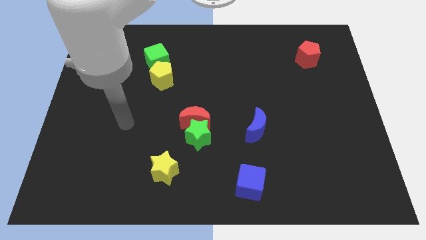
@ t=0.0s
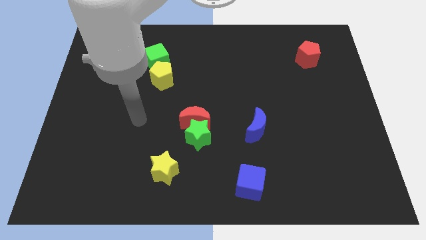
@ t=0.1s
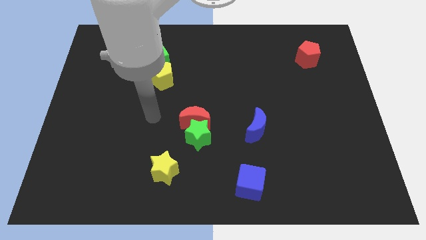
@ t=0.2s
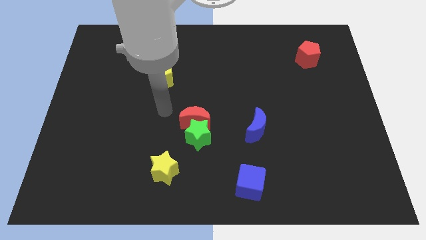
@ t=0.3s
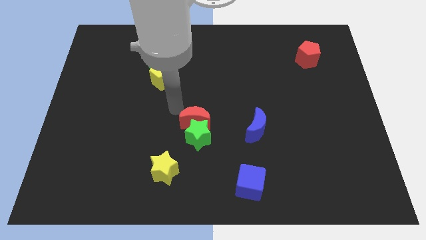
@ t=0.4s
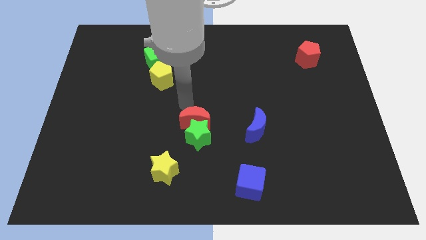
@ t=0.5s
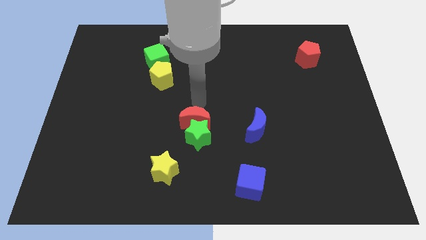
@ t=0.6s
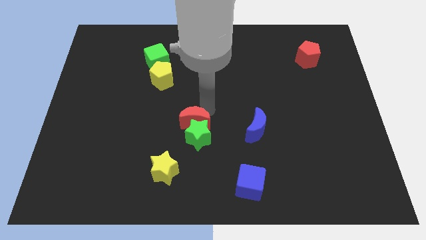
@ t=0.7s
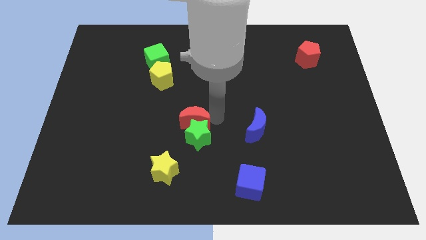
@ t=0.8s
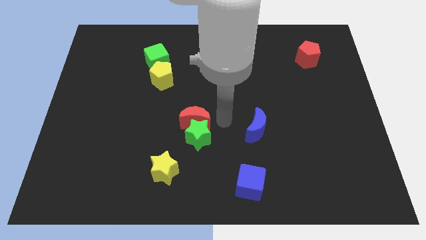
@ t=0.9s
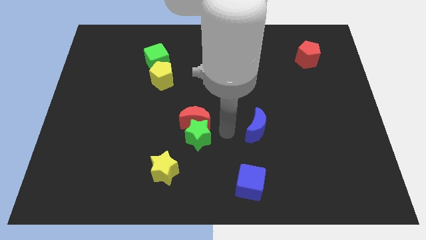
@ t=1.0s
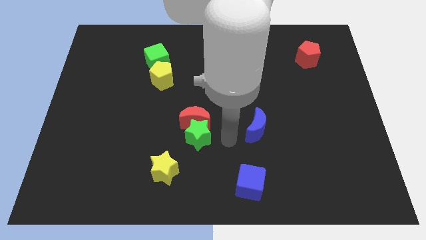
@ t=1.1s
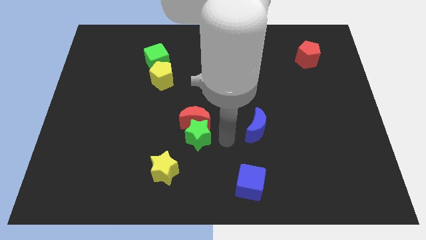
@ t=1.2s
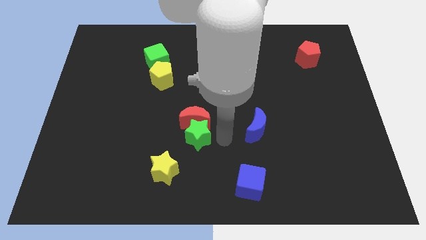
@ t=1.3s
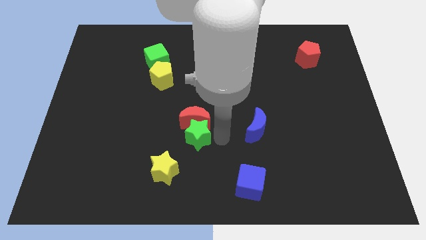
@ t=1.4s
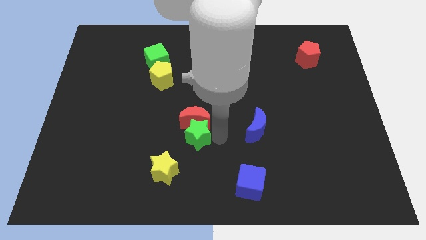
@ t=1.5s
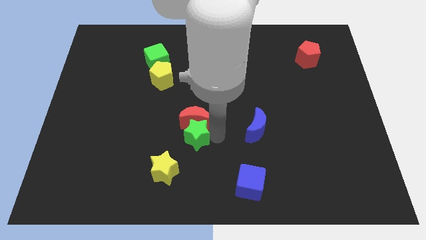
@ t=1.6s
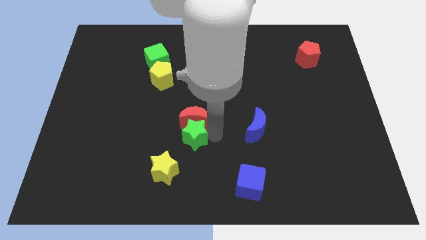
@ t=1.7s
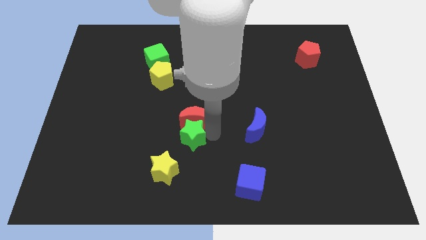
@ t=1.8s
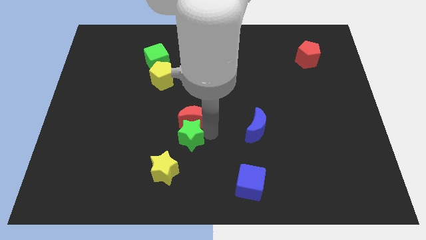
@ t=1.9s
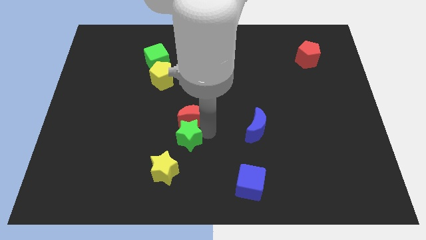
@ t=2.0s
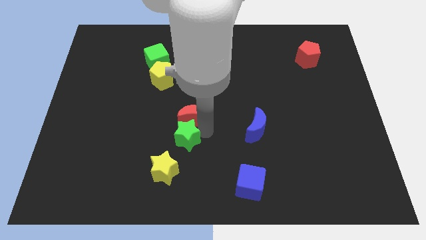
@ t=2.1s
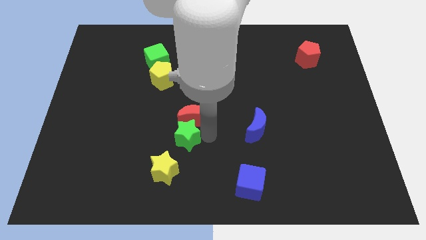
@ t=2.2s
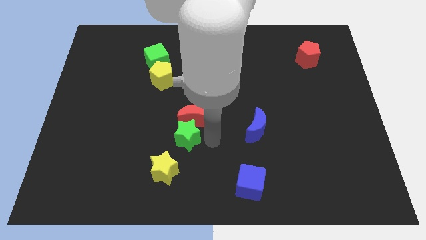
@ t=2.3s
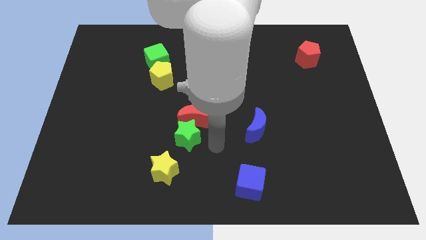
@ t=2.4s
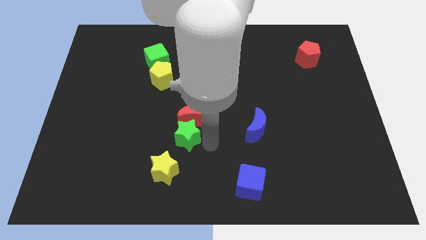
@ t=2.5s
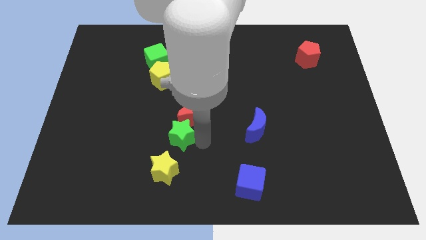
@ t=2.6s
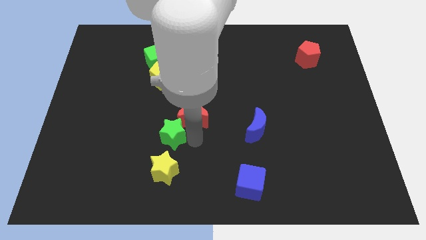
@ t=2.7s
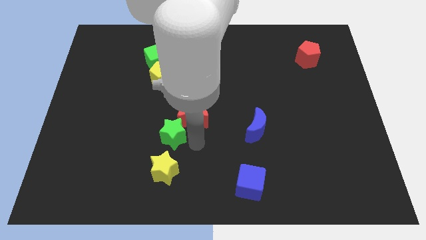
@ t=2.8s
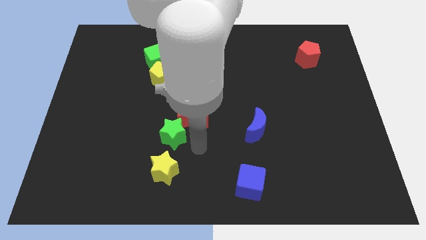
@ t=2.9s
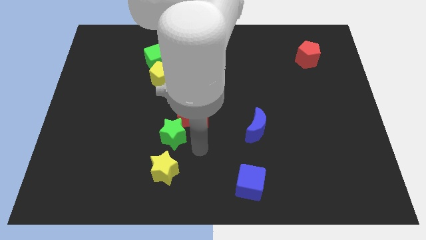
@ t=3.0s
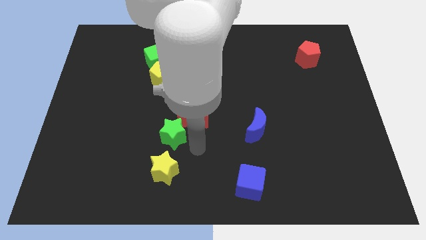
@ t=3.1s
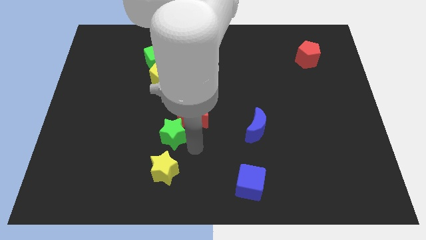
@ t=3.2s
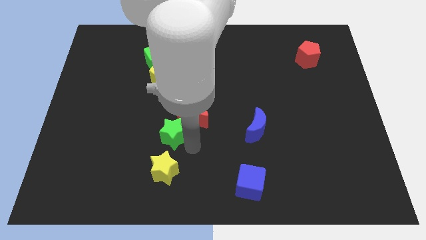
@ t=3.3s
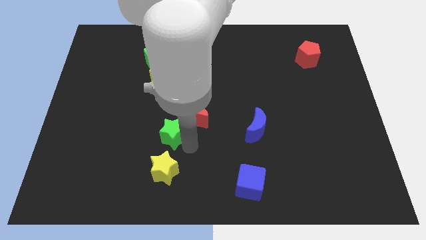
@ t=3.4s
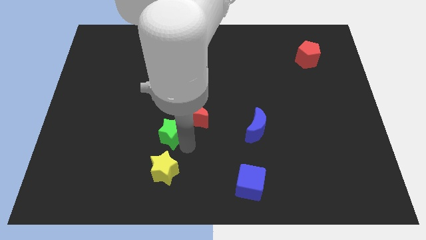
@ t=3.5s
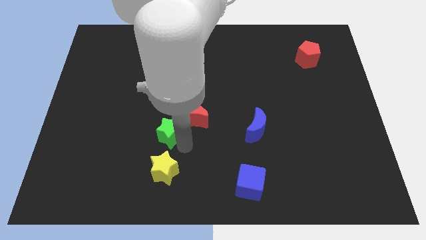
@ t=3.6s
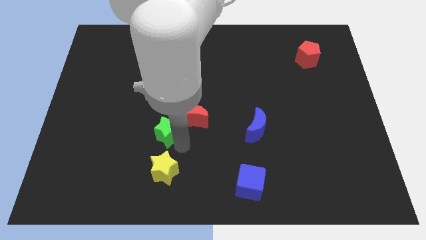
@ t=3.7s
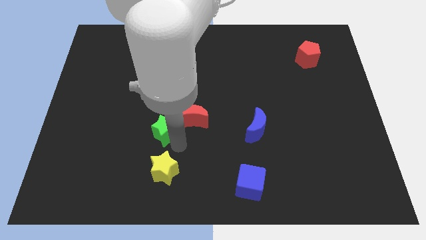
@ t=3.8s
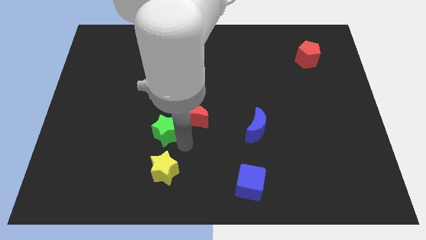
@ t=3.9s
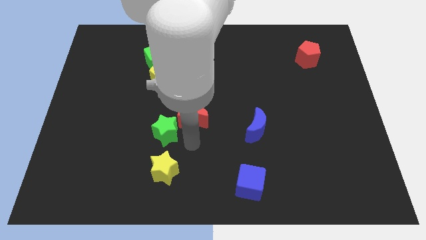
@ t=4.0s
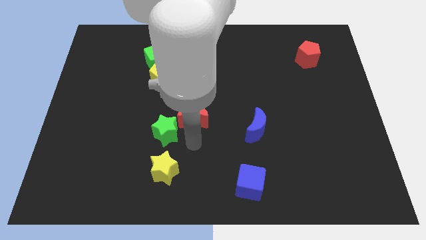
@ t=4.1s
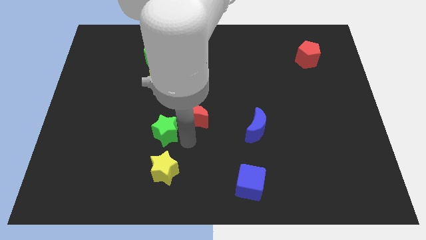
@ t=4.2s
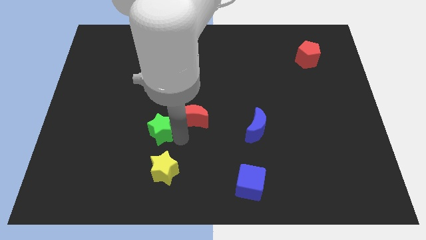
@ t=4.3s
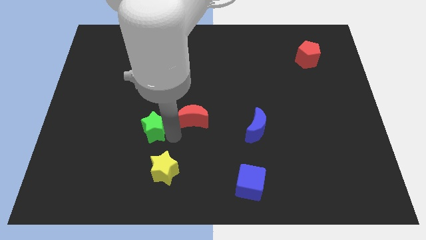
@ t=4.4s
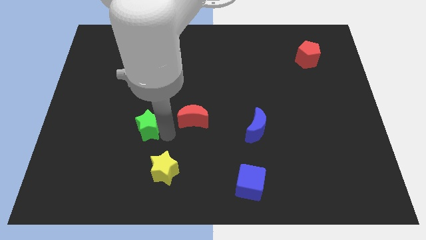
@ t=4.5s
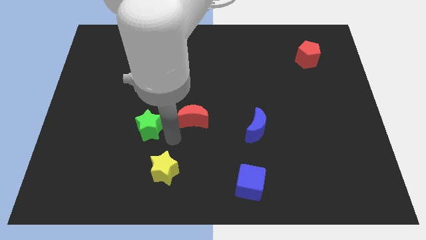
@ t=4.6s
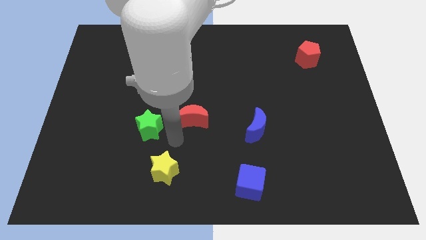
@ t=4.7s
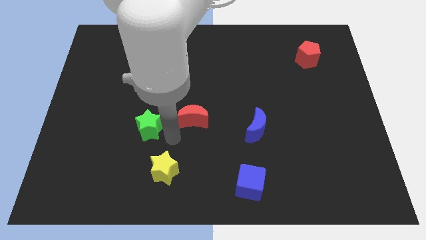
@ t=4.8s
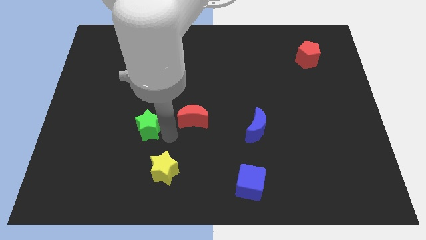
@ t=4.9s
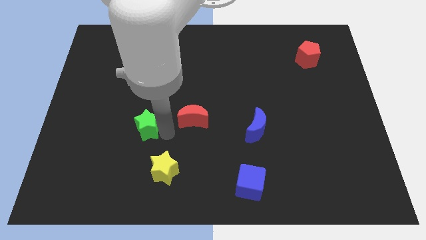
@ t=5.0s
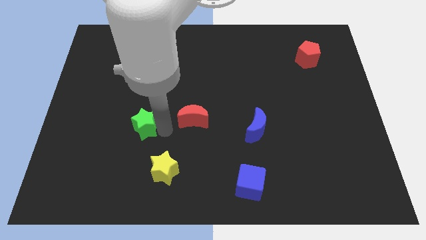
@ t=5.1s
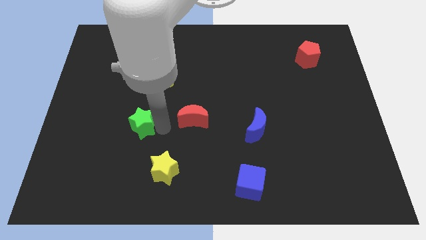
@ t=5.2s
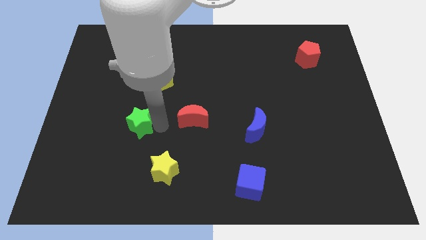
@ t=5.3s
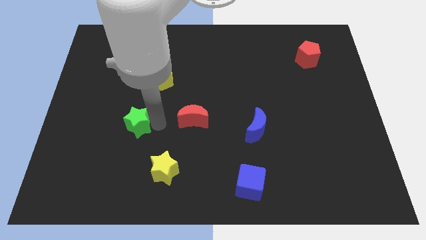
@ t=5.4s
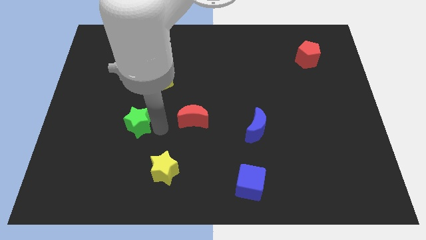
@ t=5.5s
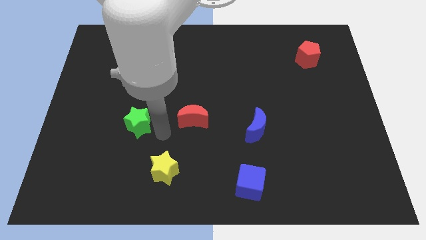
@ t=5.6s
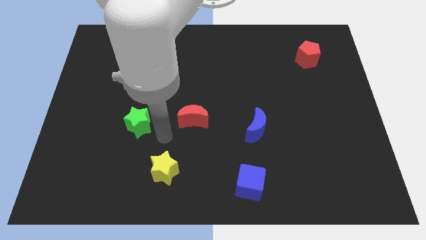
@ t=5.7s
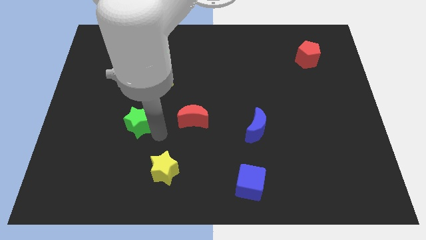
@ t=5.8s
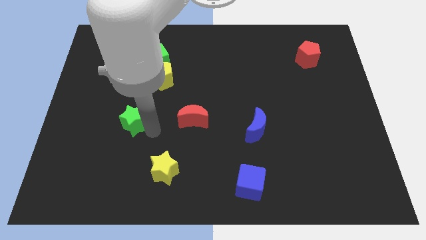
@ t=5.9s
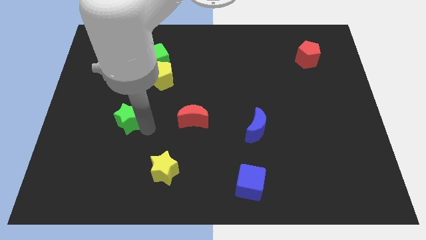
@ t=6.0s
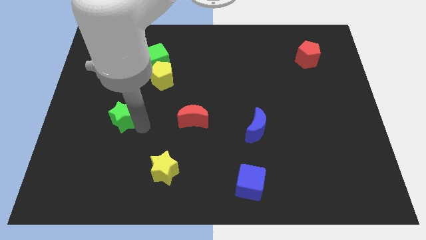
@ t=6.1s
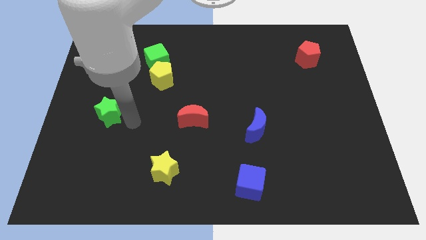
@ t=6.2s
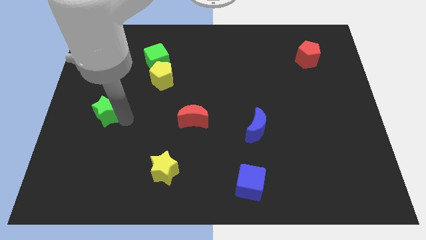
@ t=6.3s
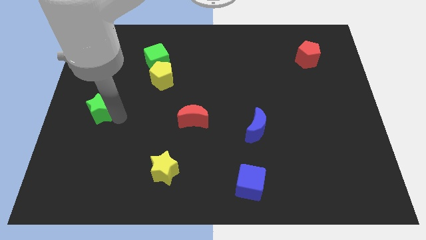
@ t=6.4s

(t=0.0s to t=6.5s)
move the green star to the center left

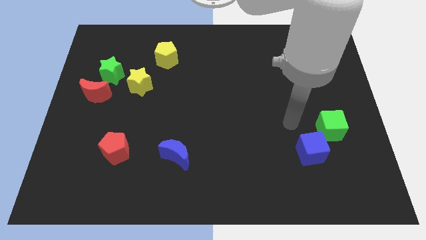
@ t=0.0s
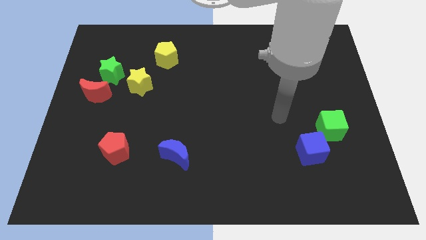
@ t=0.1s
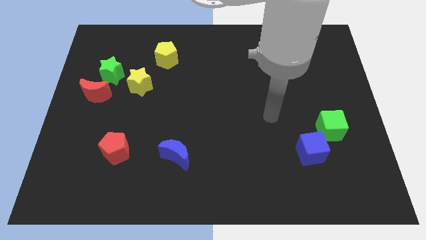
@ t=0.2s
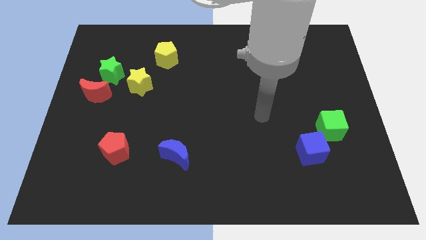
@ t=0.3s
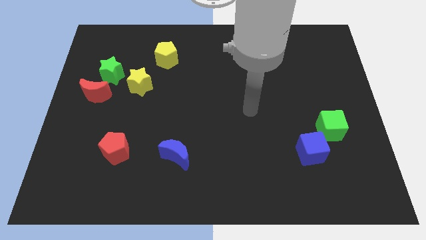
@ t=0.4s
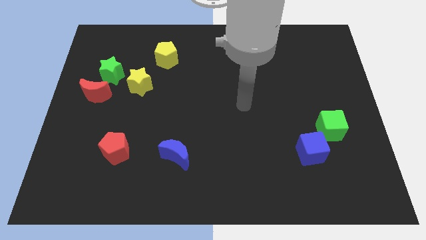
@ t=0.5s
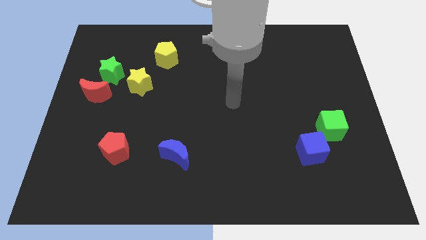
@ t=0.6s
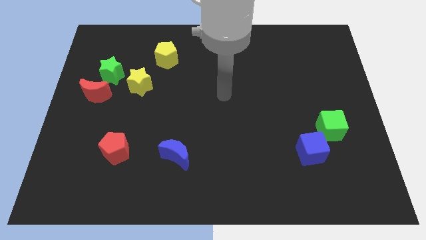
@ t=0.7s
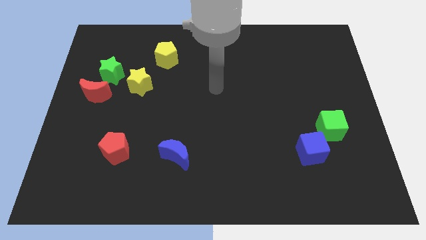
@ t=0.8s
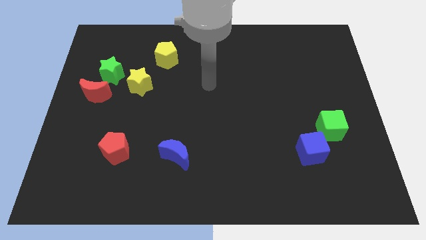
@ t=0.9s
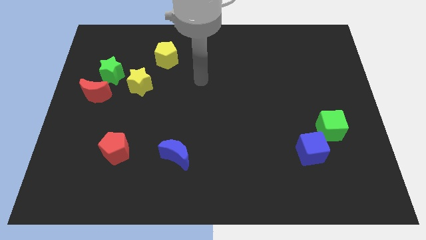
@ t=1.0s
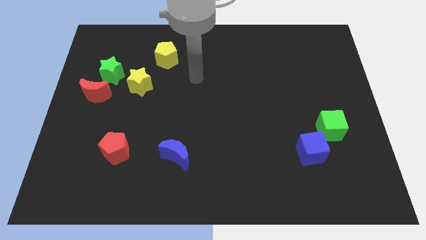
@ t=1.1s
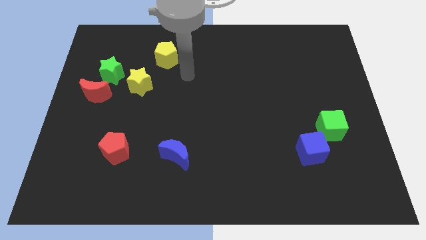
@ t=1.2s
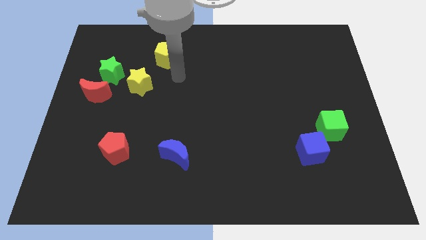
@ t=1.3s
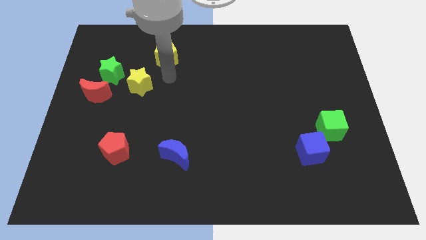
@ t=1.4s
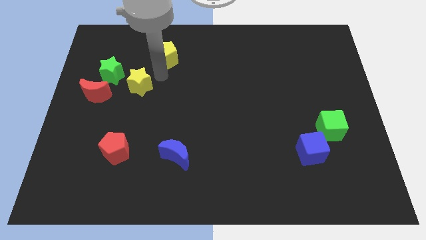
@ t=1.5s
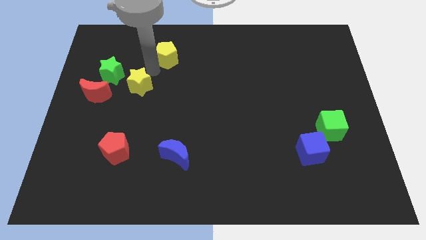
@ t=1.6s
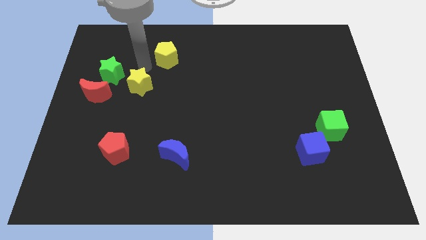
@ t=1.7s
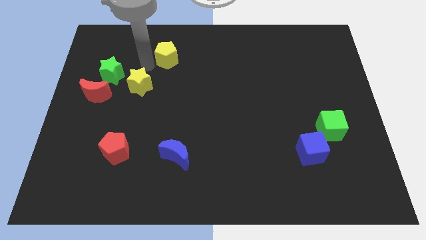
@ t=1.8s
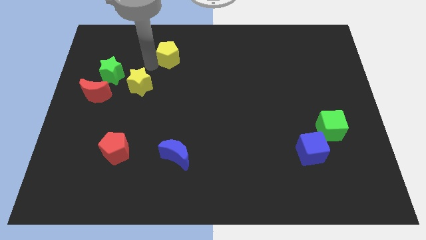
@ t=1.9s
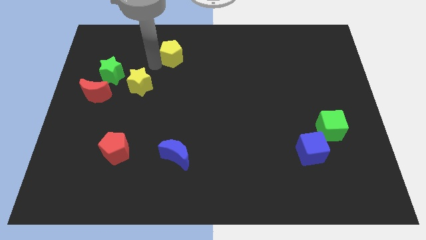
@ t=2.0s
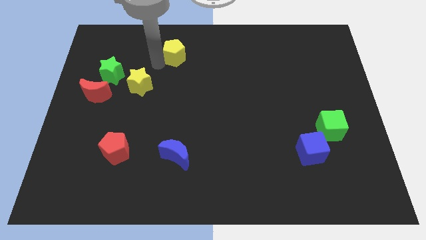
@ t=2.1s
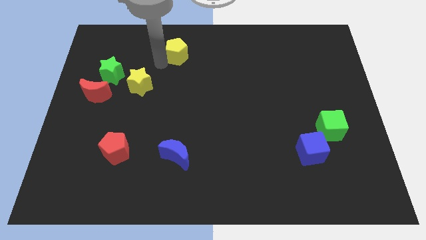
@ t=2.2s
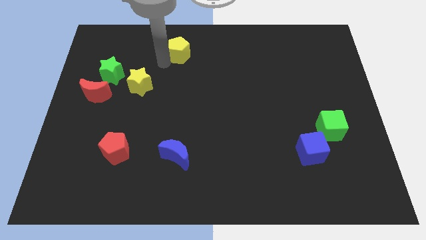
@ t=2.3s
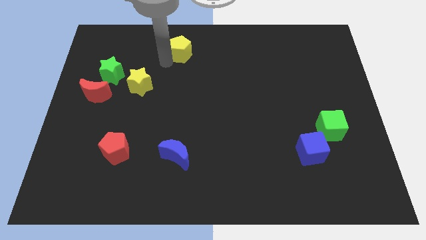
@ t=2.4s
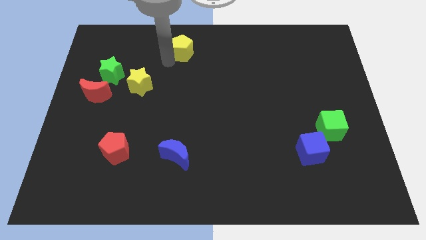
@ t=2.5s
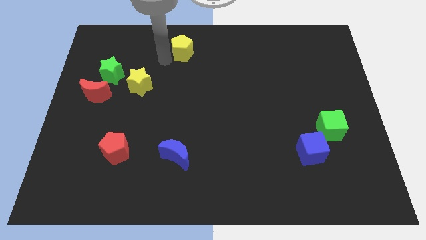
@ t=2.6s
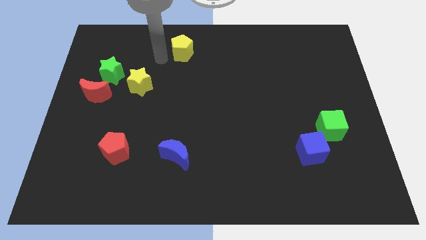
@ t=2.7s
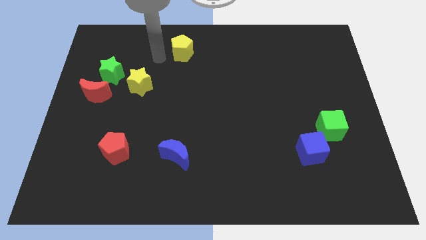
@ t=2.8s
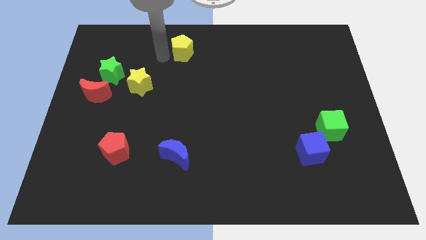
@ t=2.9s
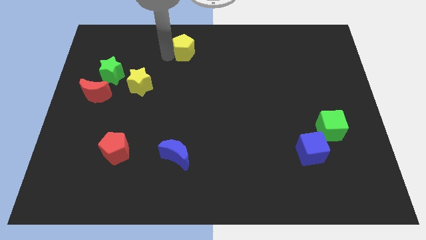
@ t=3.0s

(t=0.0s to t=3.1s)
move the yellow pentagon to the towards your base
